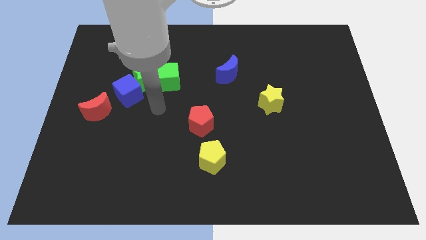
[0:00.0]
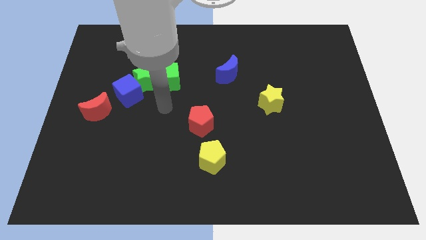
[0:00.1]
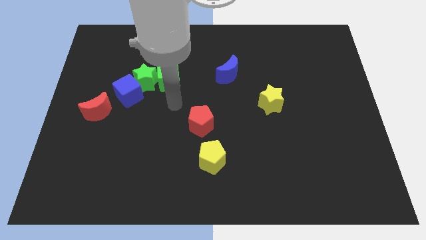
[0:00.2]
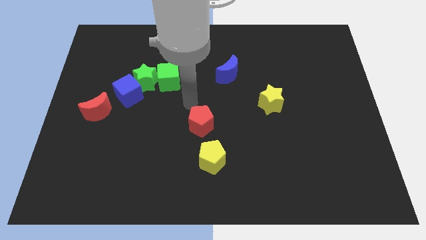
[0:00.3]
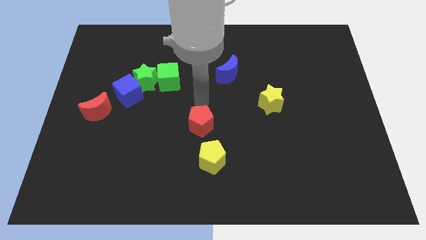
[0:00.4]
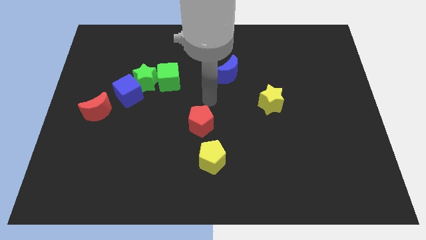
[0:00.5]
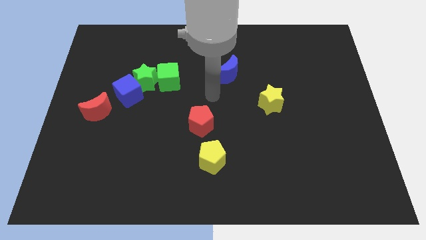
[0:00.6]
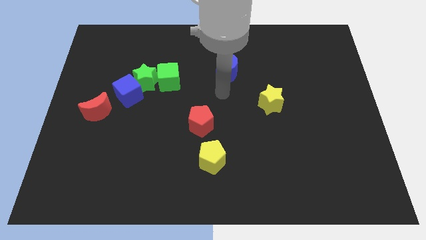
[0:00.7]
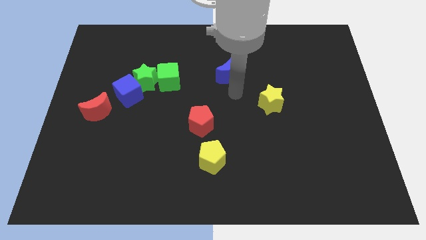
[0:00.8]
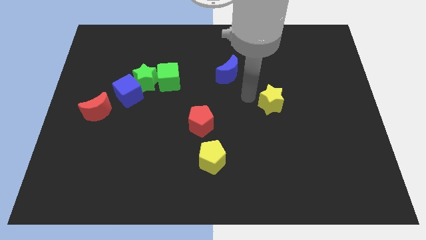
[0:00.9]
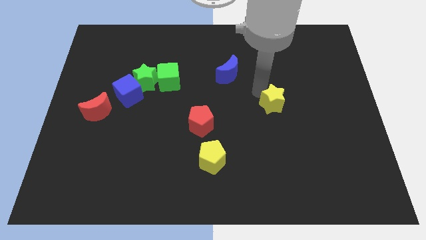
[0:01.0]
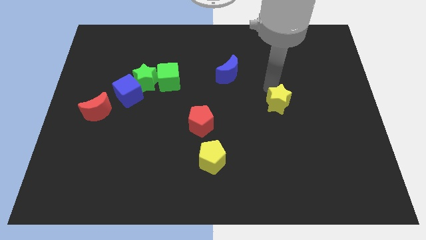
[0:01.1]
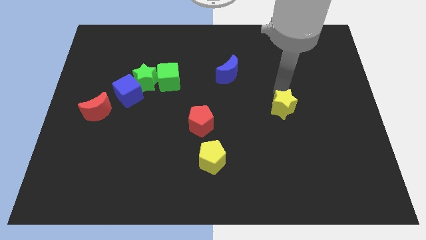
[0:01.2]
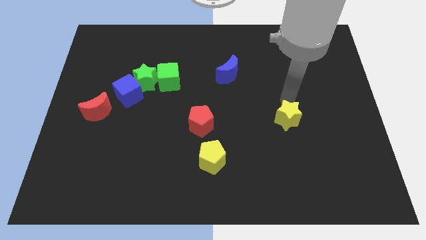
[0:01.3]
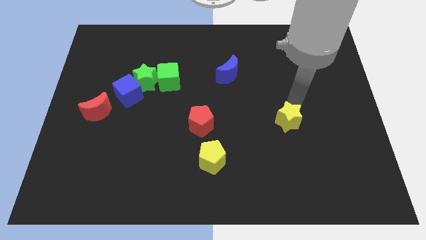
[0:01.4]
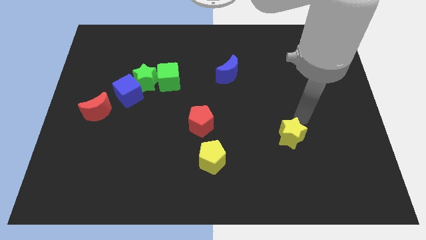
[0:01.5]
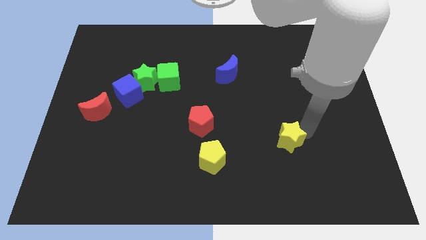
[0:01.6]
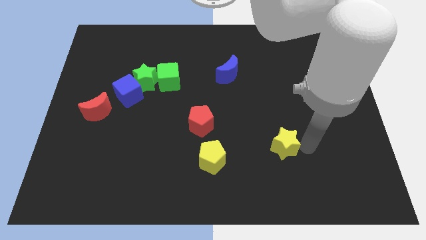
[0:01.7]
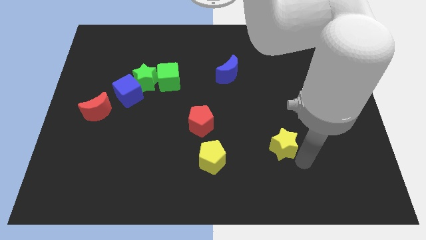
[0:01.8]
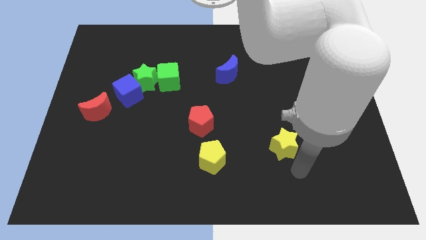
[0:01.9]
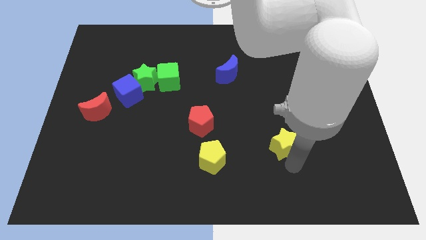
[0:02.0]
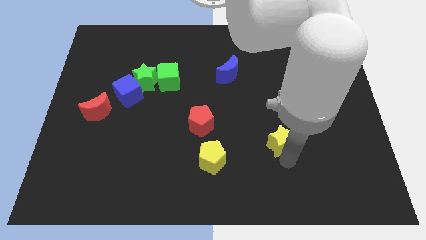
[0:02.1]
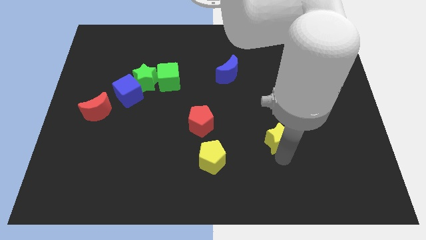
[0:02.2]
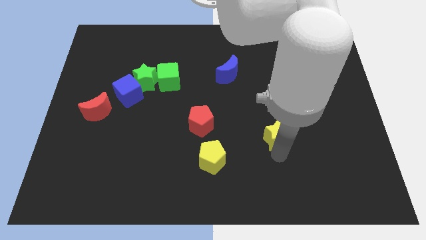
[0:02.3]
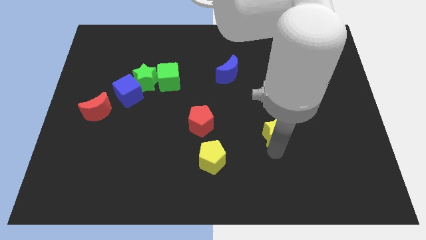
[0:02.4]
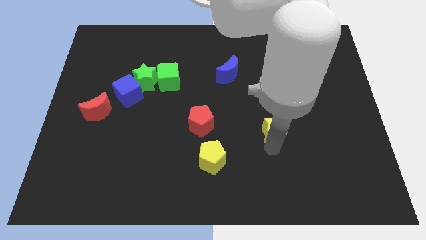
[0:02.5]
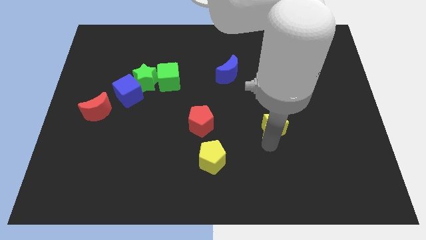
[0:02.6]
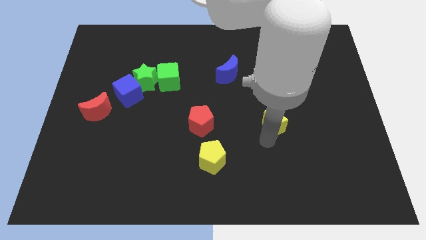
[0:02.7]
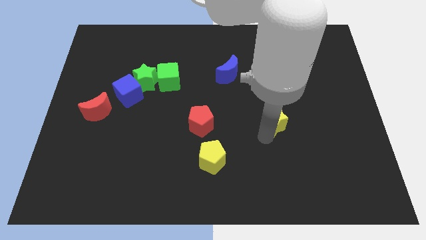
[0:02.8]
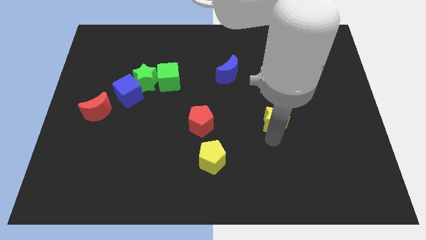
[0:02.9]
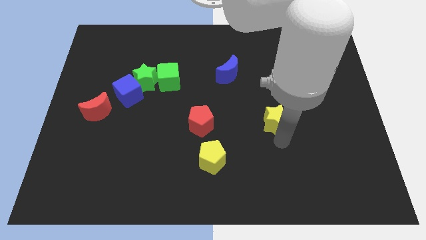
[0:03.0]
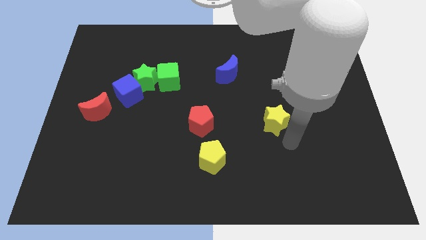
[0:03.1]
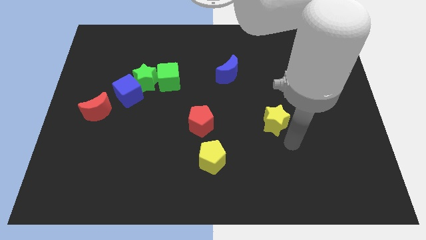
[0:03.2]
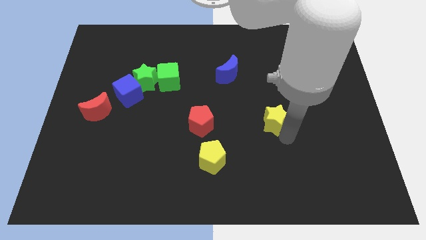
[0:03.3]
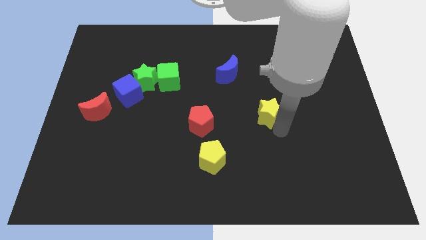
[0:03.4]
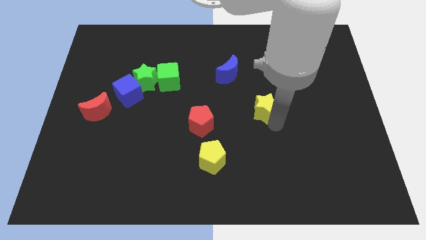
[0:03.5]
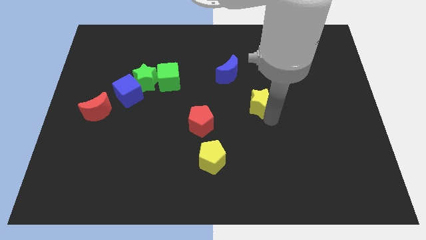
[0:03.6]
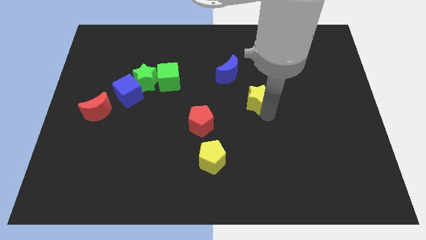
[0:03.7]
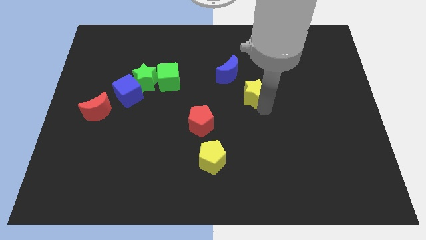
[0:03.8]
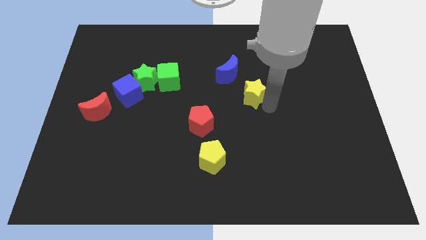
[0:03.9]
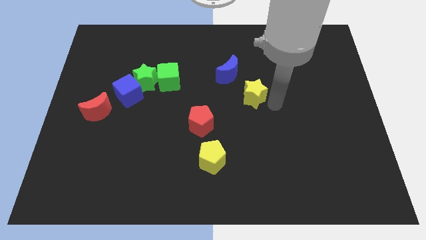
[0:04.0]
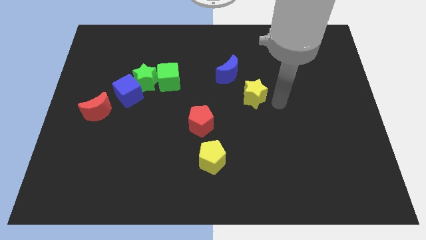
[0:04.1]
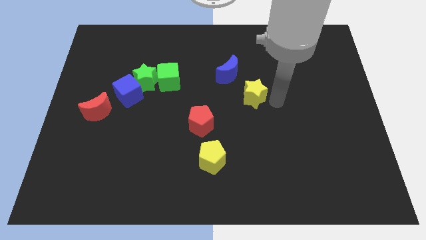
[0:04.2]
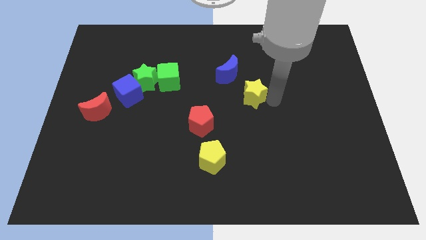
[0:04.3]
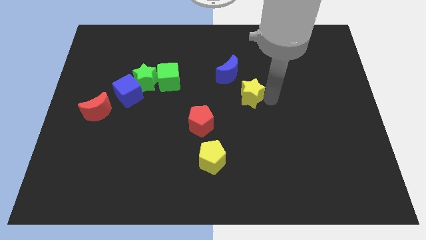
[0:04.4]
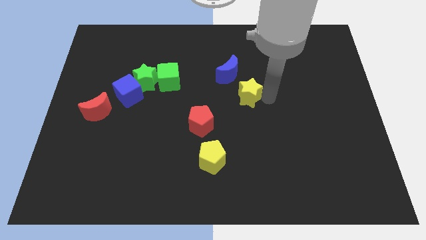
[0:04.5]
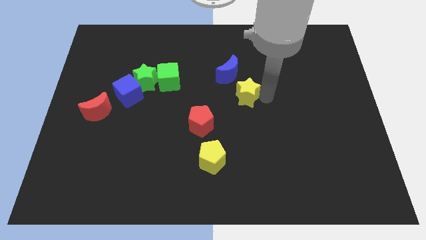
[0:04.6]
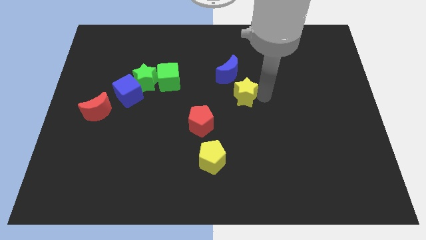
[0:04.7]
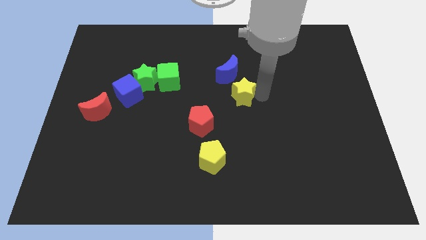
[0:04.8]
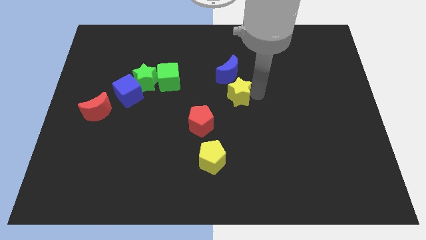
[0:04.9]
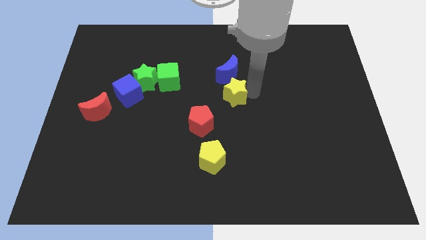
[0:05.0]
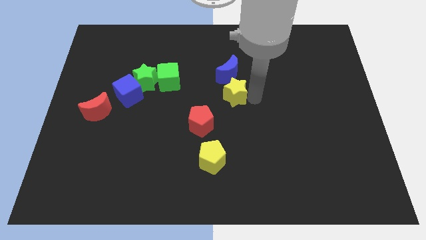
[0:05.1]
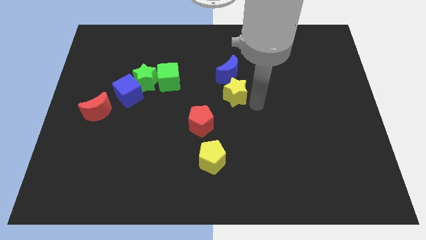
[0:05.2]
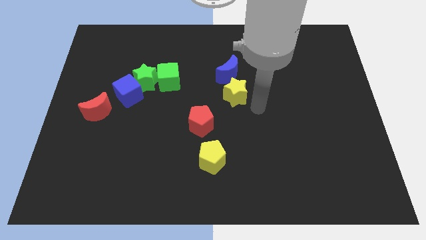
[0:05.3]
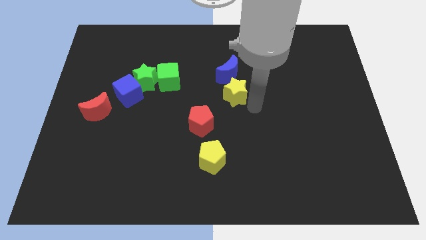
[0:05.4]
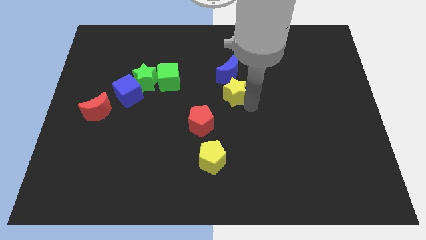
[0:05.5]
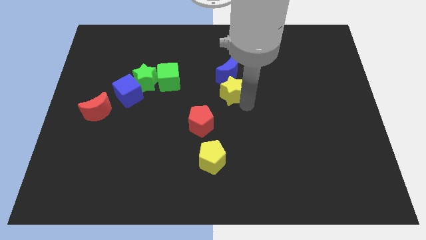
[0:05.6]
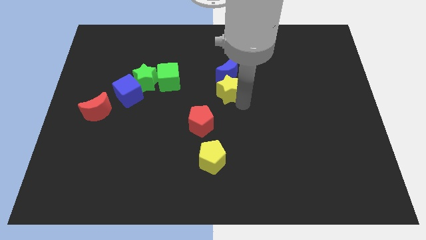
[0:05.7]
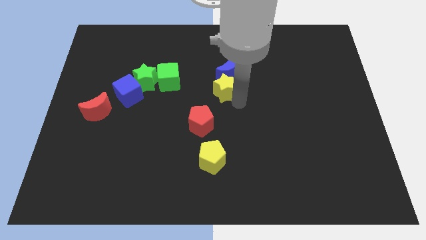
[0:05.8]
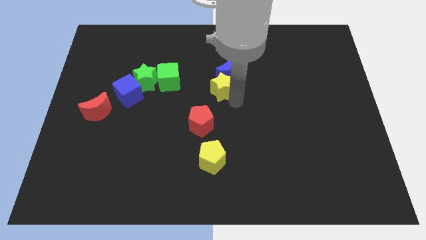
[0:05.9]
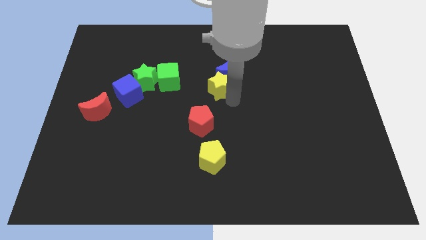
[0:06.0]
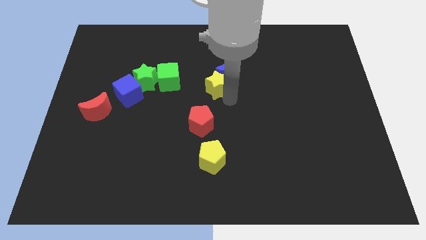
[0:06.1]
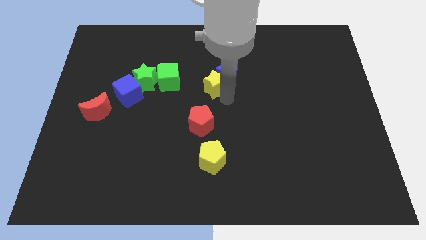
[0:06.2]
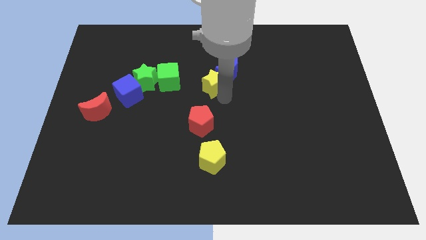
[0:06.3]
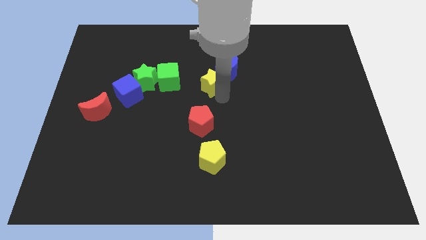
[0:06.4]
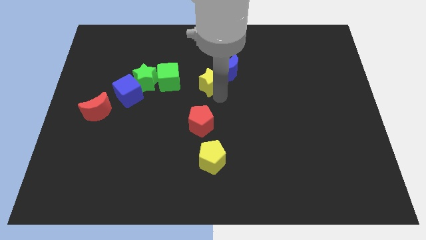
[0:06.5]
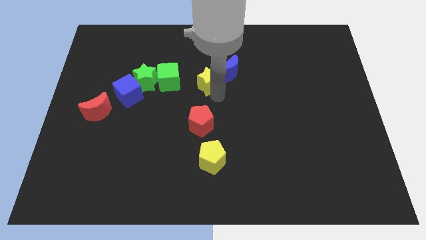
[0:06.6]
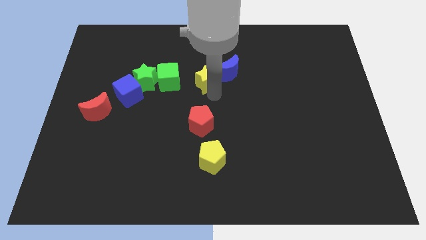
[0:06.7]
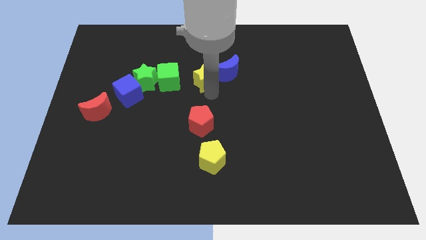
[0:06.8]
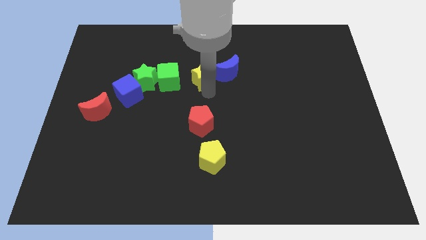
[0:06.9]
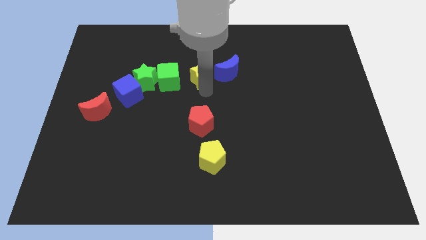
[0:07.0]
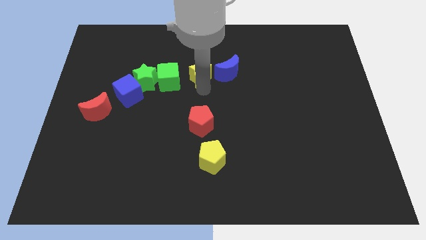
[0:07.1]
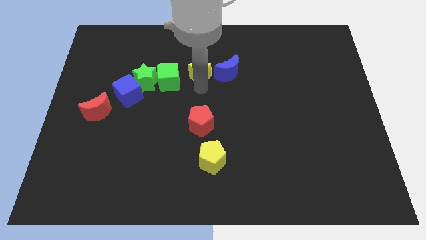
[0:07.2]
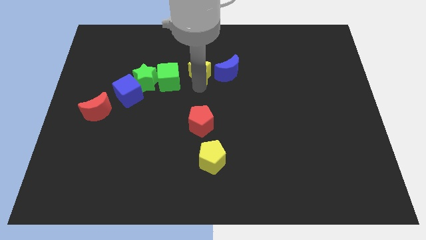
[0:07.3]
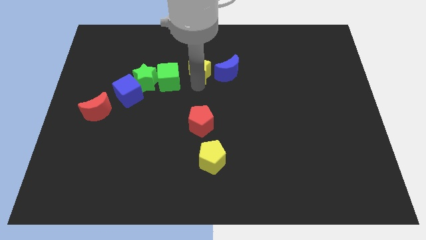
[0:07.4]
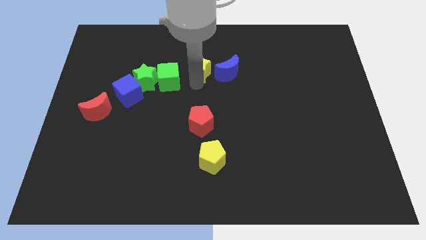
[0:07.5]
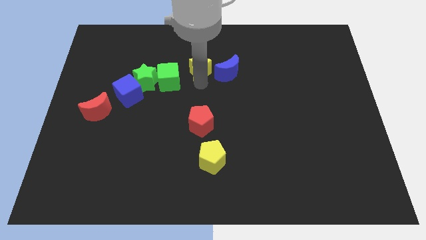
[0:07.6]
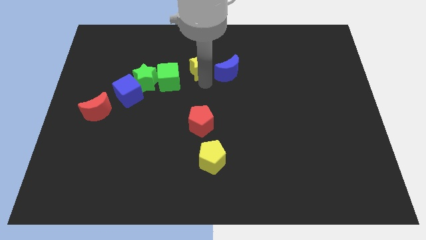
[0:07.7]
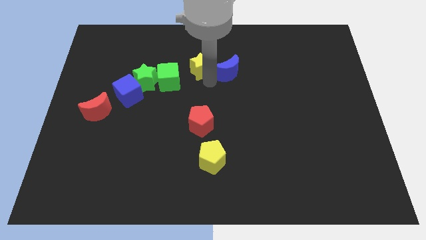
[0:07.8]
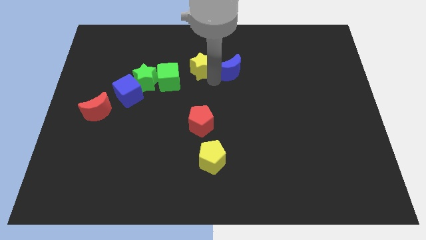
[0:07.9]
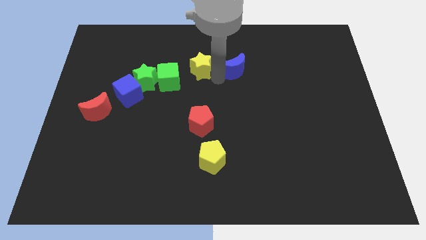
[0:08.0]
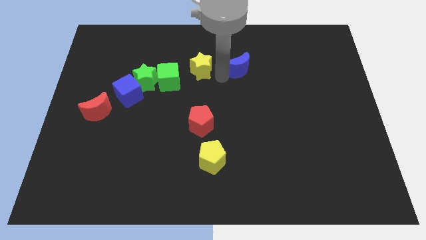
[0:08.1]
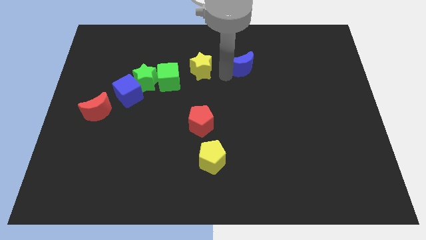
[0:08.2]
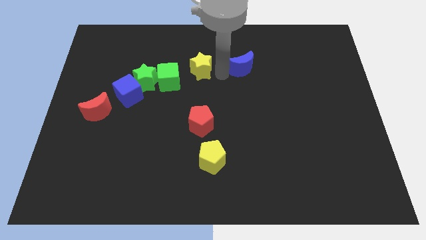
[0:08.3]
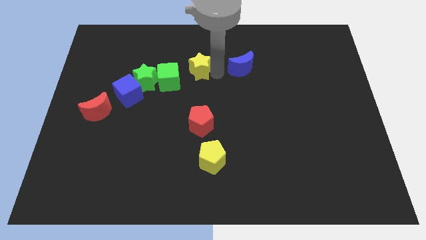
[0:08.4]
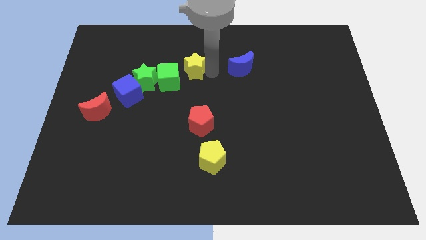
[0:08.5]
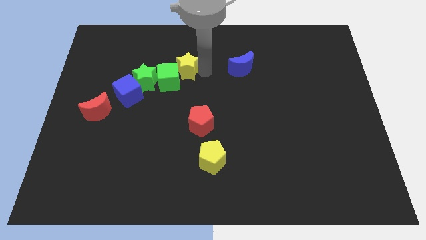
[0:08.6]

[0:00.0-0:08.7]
slide the yellow star diagonally up and to the right of the green star

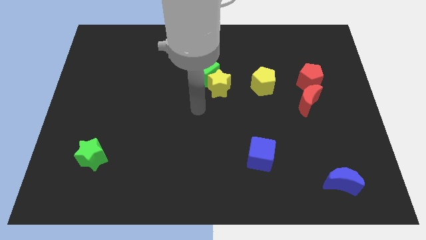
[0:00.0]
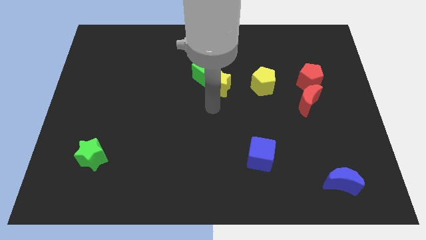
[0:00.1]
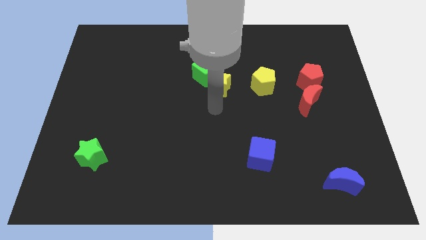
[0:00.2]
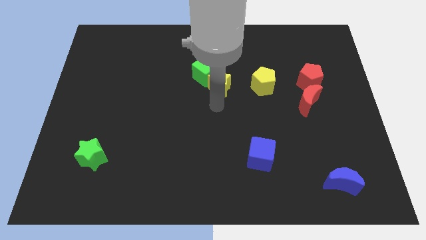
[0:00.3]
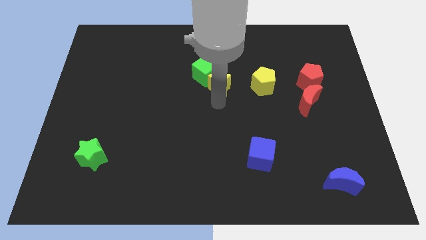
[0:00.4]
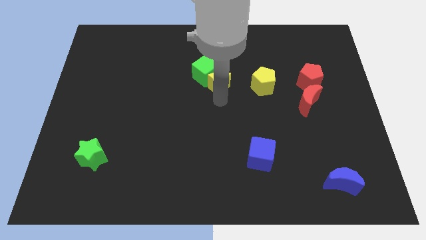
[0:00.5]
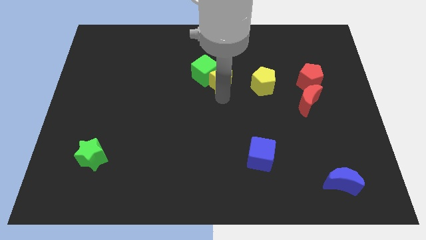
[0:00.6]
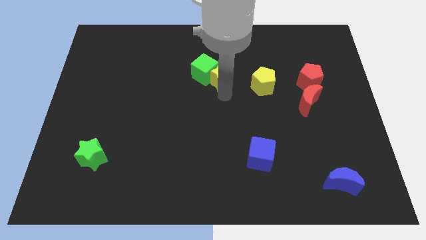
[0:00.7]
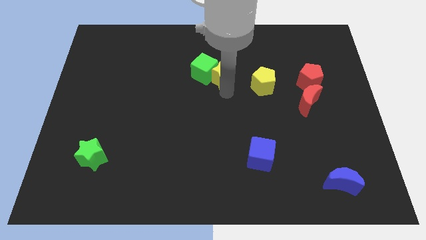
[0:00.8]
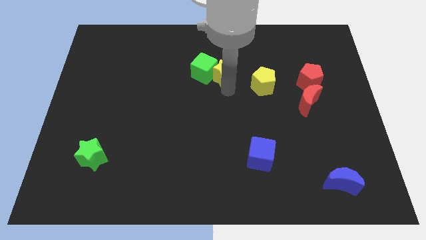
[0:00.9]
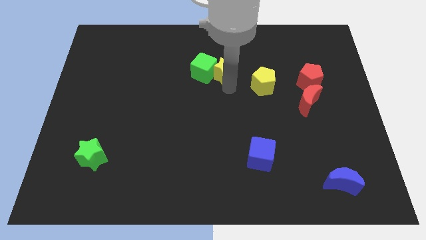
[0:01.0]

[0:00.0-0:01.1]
push the yellow star to the top right side of the green cube
